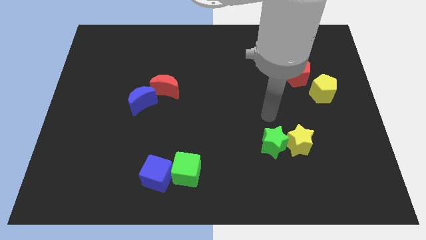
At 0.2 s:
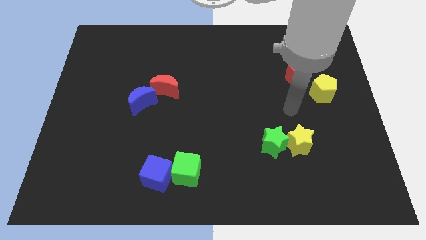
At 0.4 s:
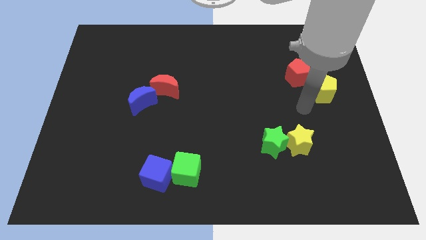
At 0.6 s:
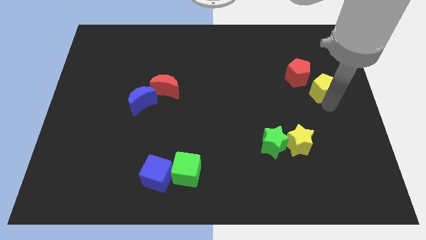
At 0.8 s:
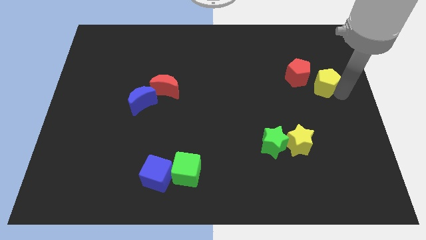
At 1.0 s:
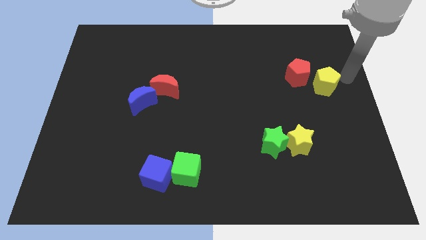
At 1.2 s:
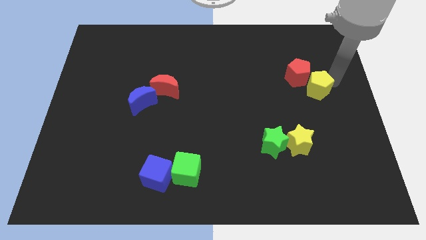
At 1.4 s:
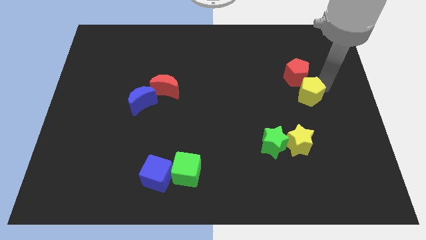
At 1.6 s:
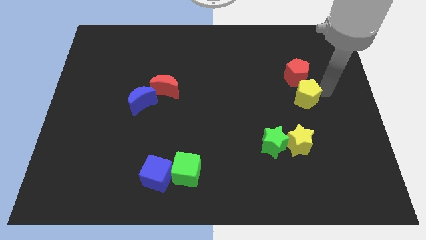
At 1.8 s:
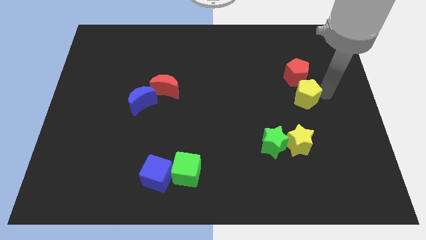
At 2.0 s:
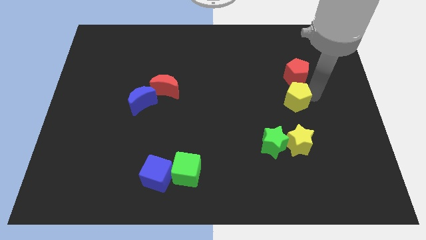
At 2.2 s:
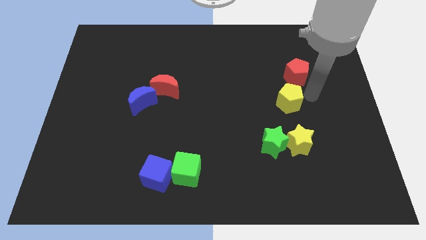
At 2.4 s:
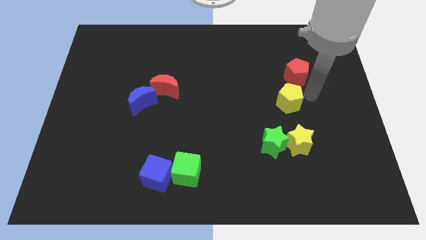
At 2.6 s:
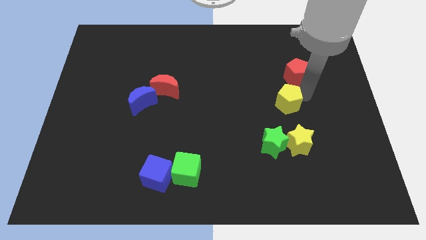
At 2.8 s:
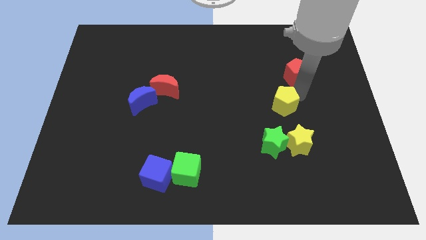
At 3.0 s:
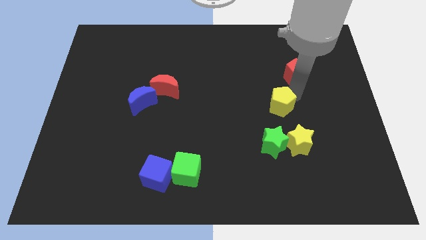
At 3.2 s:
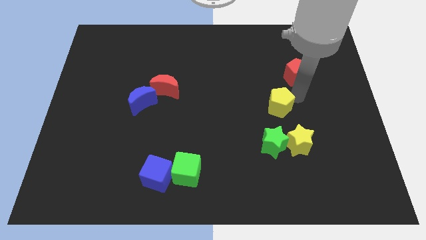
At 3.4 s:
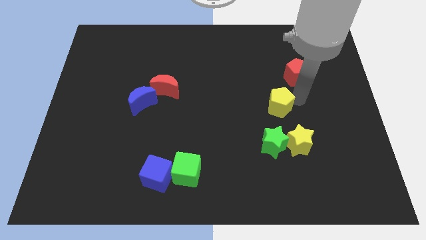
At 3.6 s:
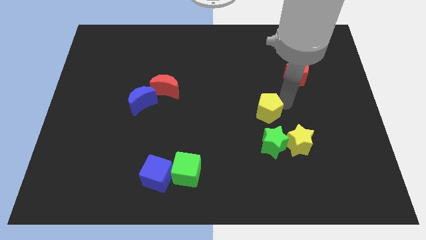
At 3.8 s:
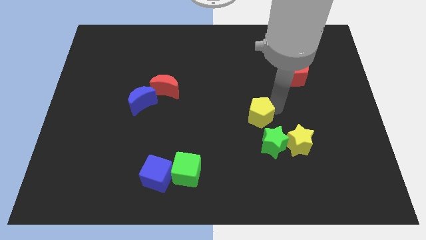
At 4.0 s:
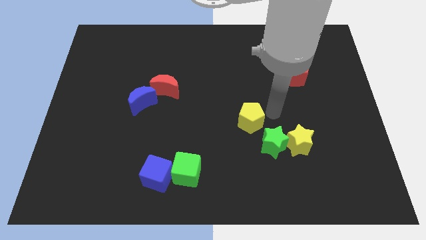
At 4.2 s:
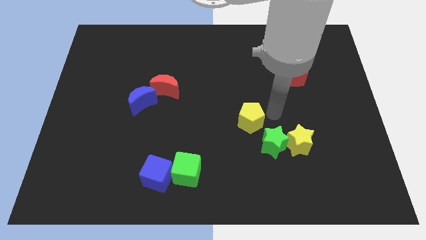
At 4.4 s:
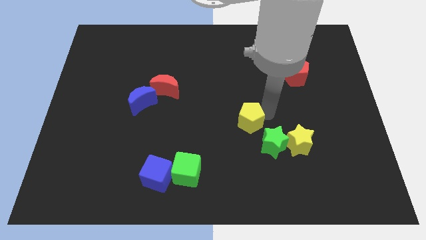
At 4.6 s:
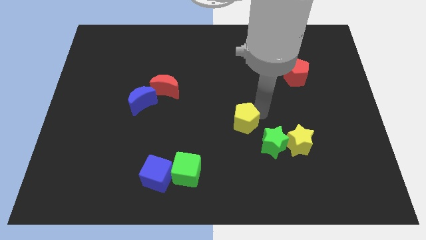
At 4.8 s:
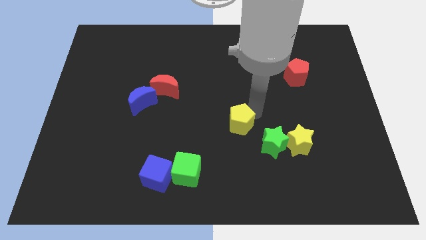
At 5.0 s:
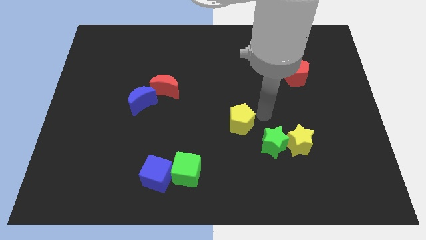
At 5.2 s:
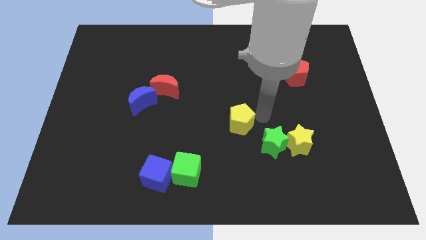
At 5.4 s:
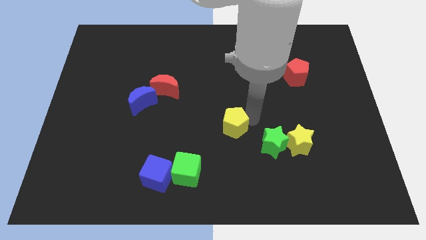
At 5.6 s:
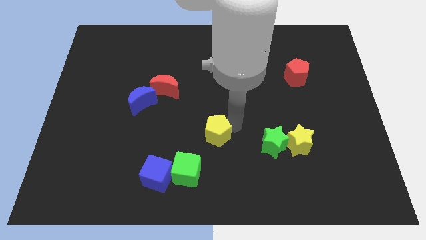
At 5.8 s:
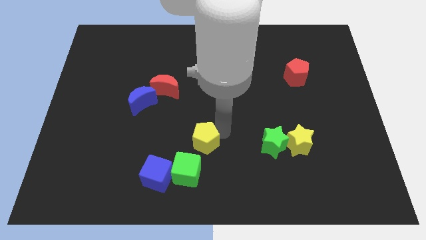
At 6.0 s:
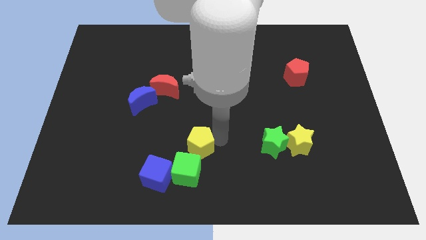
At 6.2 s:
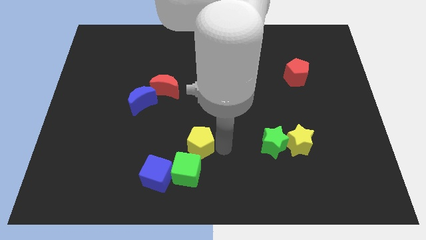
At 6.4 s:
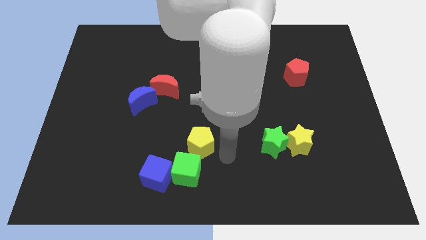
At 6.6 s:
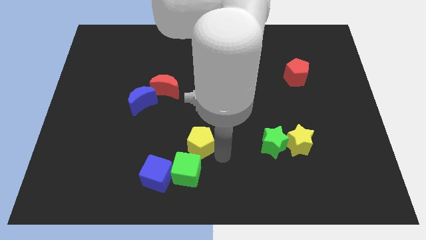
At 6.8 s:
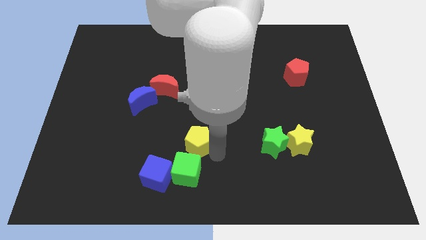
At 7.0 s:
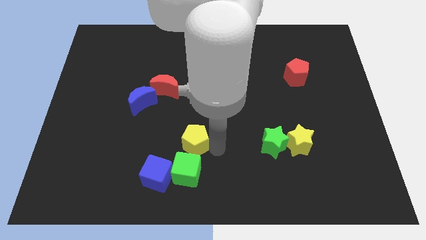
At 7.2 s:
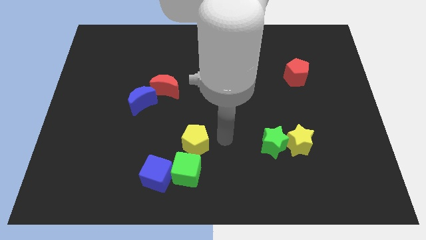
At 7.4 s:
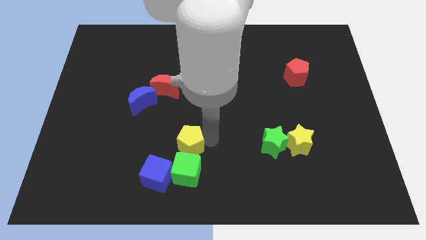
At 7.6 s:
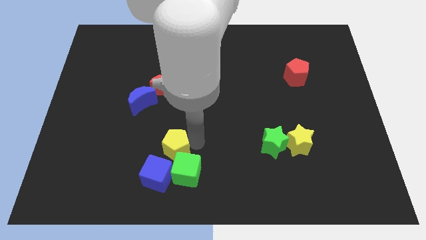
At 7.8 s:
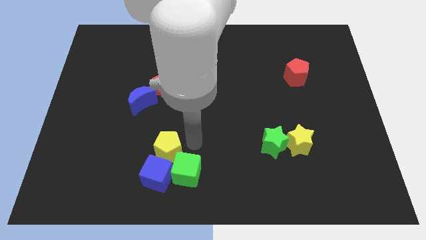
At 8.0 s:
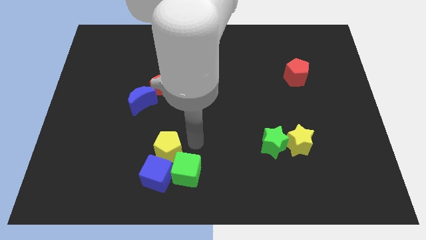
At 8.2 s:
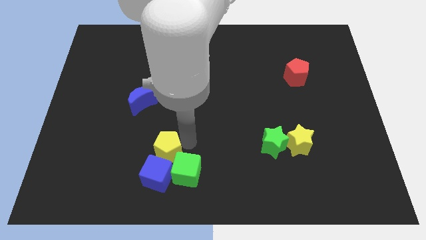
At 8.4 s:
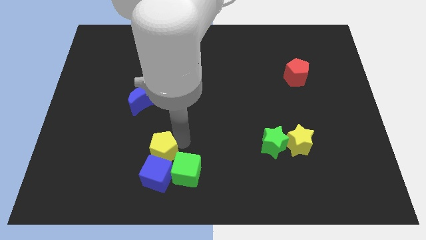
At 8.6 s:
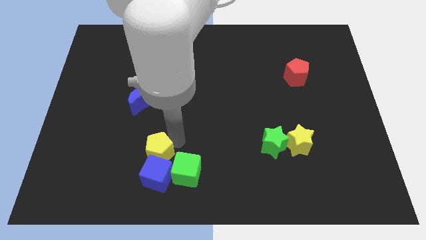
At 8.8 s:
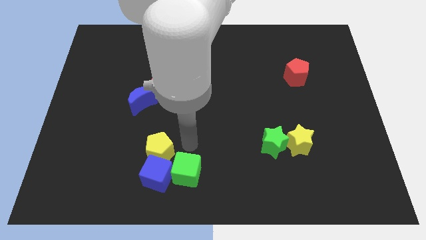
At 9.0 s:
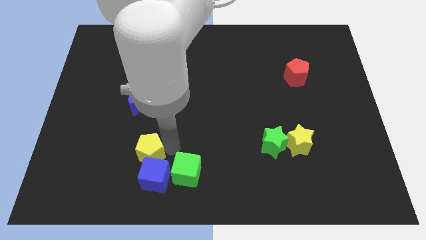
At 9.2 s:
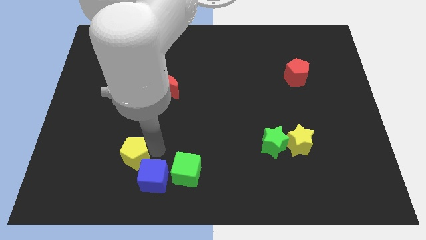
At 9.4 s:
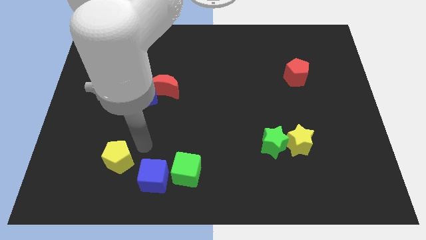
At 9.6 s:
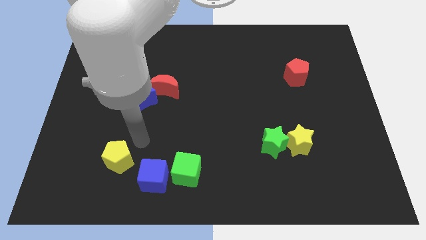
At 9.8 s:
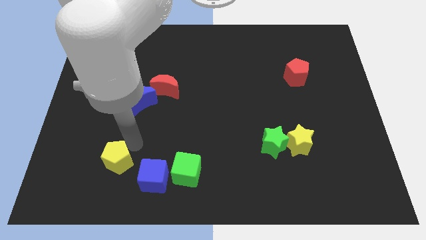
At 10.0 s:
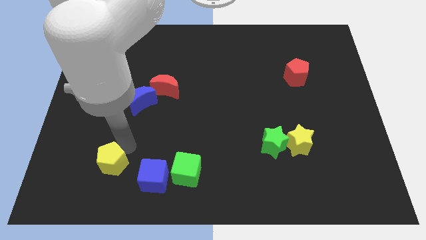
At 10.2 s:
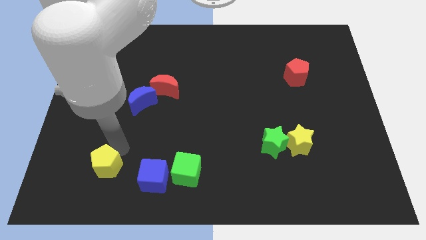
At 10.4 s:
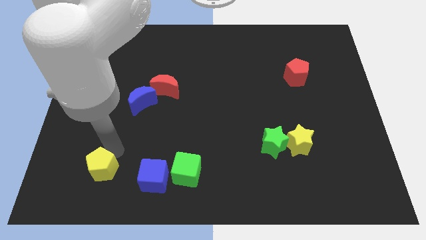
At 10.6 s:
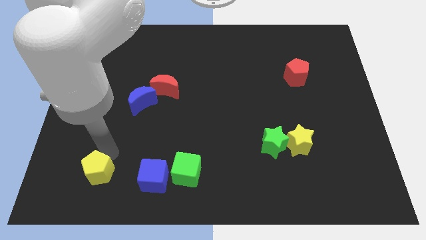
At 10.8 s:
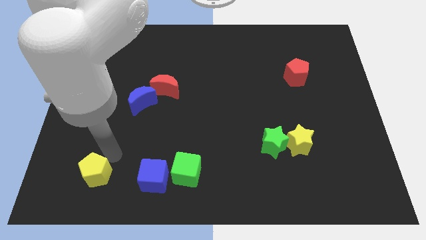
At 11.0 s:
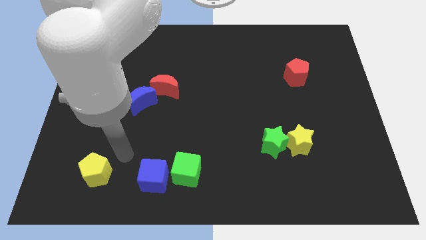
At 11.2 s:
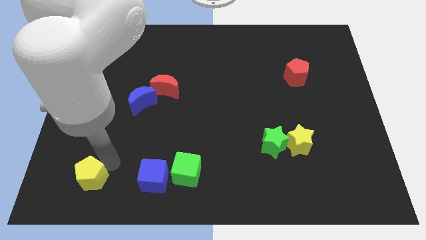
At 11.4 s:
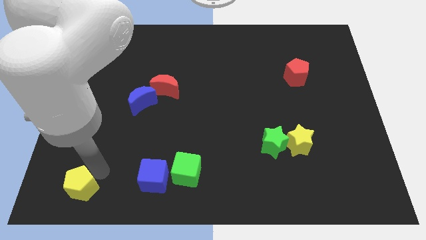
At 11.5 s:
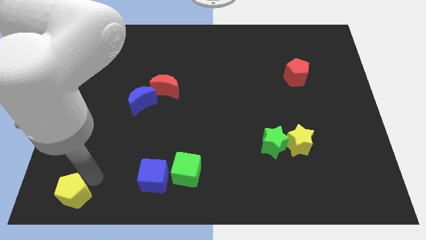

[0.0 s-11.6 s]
push the yellow pentagon to the bottom left of the board

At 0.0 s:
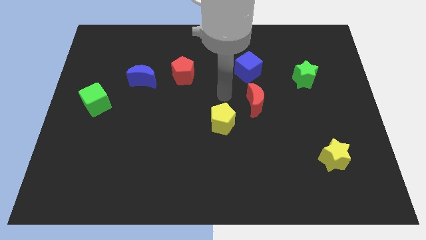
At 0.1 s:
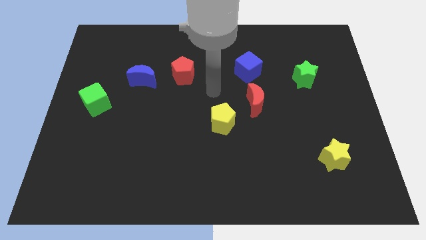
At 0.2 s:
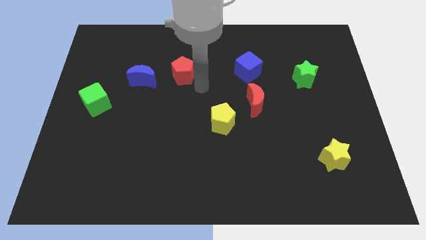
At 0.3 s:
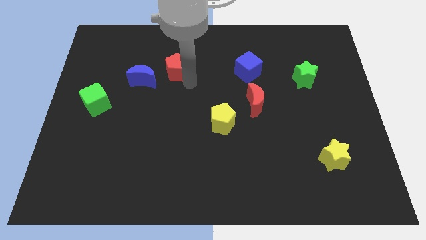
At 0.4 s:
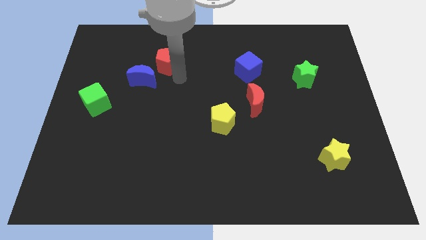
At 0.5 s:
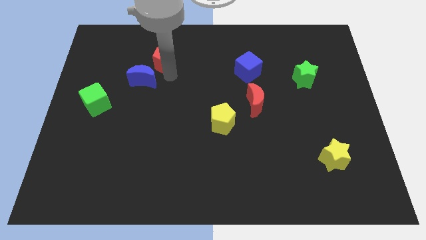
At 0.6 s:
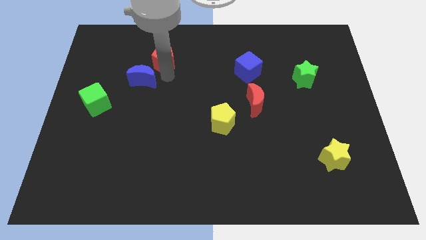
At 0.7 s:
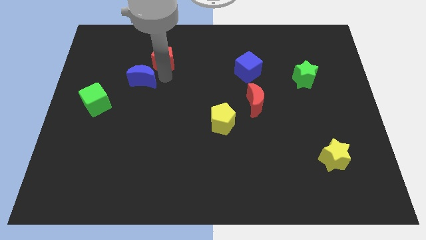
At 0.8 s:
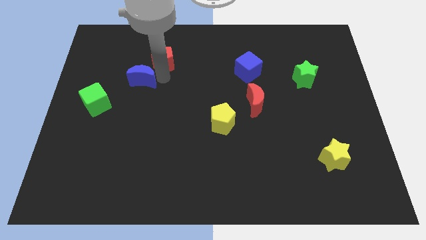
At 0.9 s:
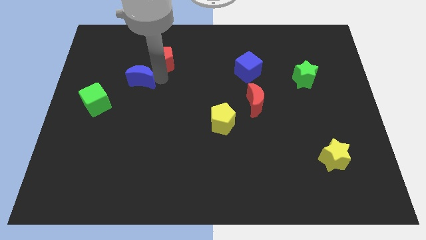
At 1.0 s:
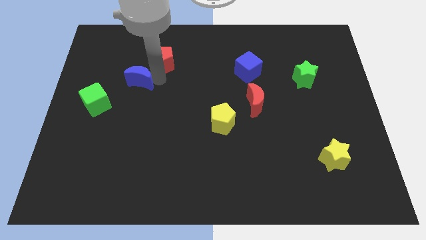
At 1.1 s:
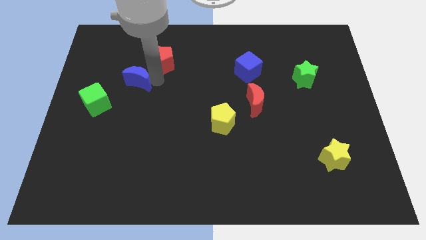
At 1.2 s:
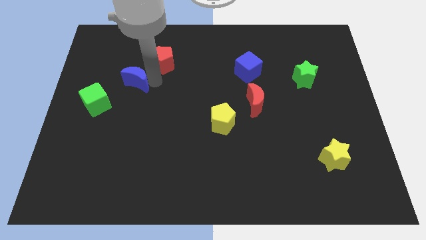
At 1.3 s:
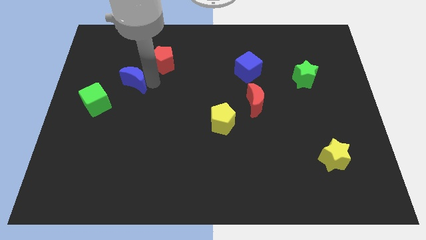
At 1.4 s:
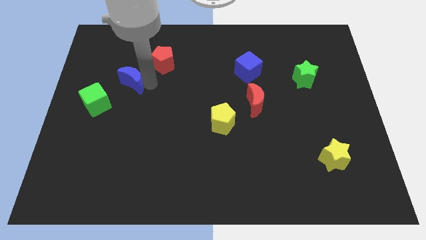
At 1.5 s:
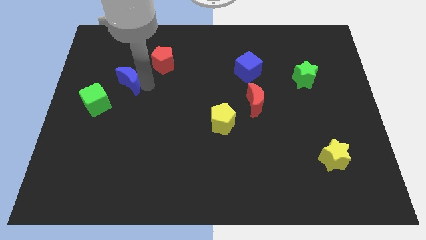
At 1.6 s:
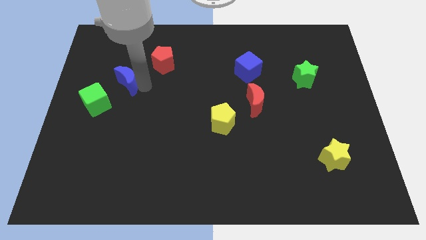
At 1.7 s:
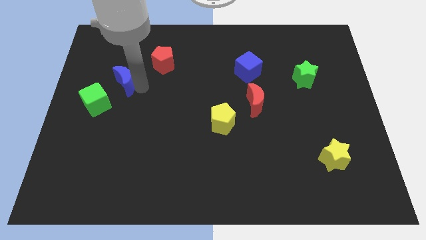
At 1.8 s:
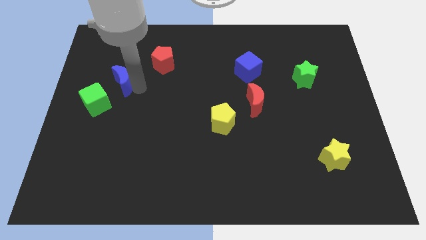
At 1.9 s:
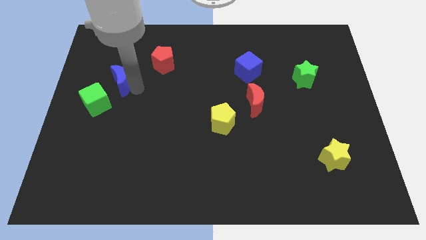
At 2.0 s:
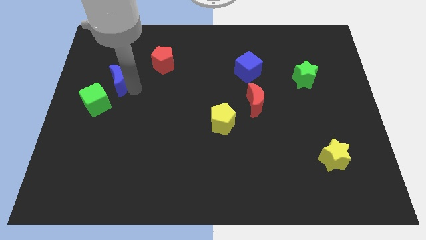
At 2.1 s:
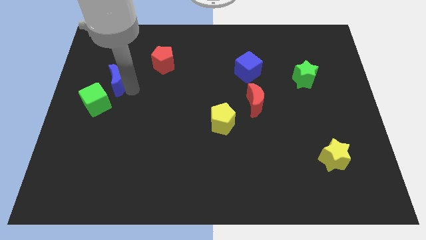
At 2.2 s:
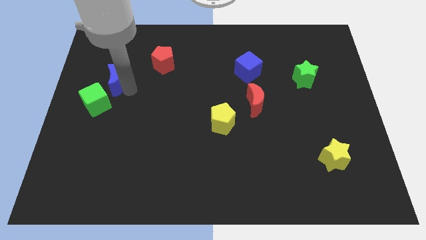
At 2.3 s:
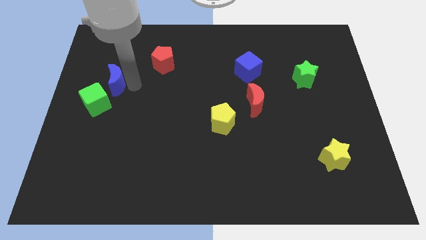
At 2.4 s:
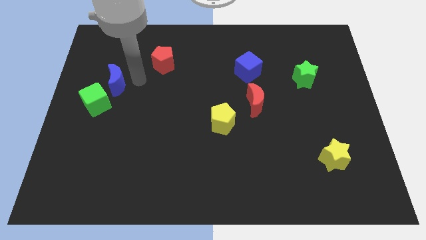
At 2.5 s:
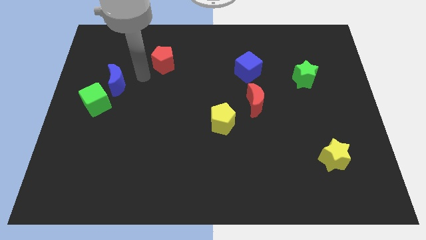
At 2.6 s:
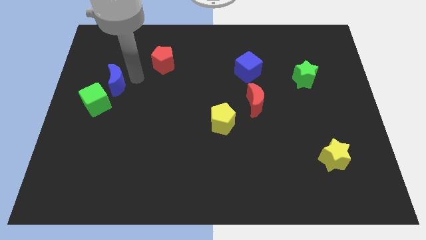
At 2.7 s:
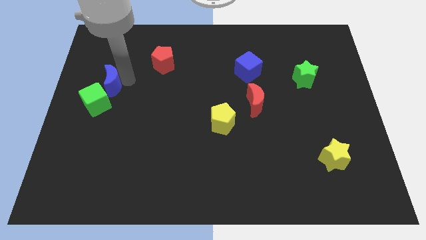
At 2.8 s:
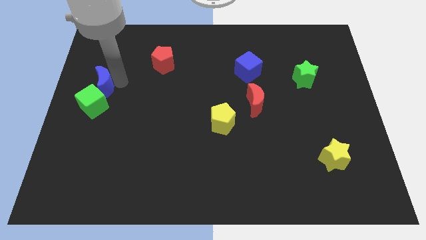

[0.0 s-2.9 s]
push the blue moon to the left side
